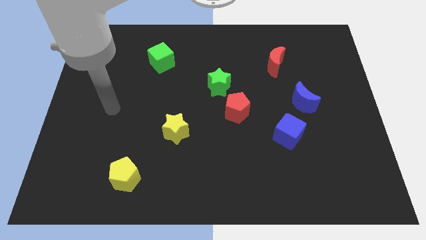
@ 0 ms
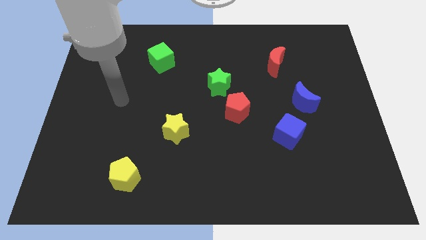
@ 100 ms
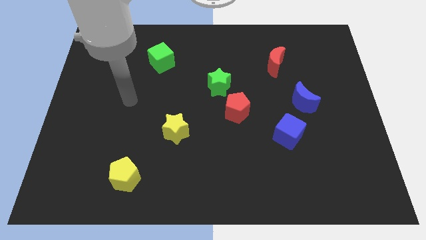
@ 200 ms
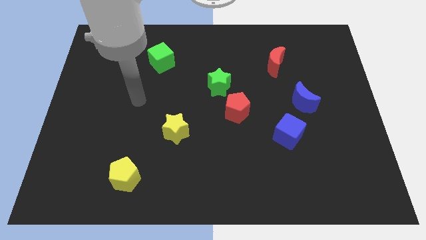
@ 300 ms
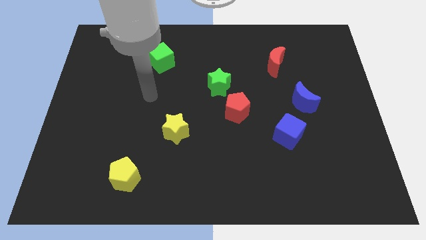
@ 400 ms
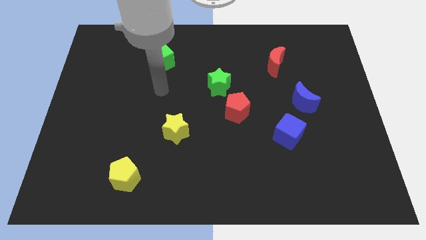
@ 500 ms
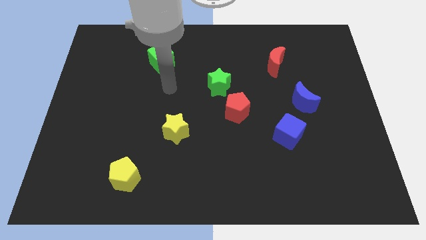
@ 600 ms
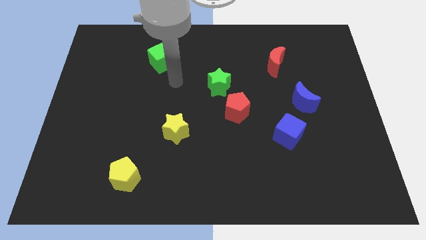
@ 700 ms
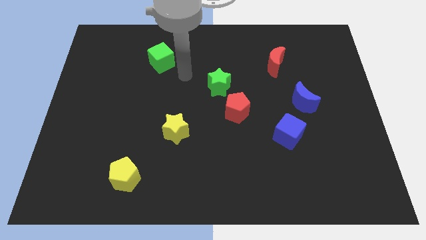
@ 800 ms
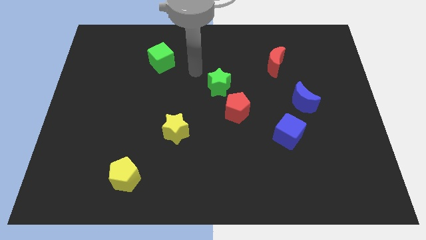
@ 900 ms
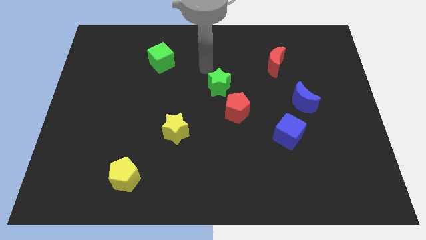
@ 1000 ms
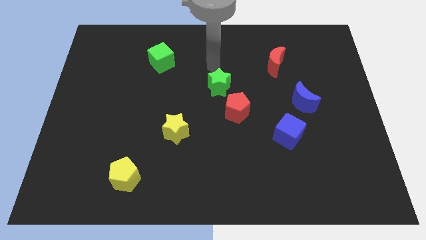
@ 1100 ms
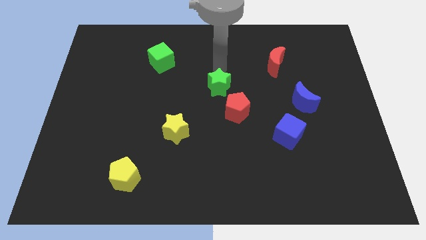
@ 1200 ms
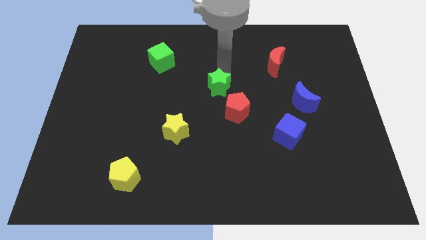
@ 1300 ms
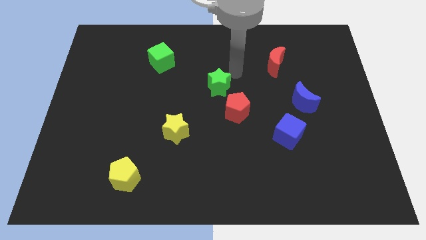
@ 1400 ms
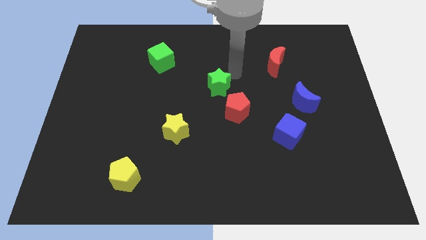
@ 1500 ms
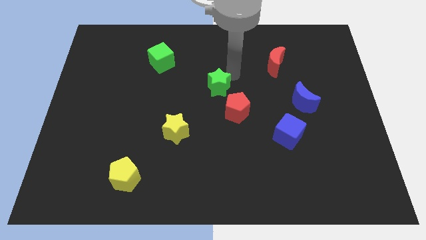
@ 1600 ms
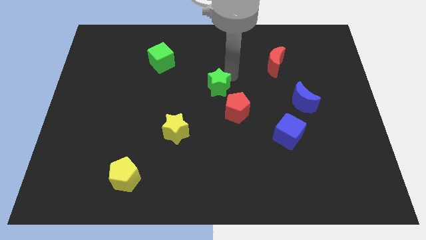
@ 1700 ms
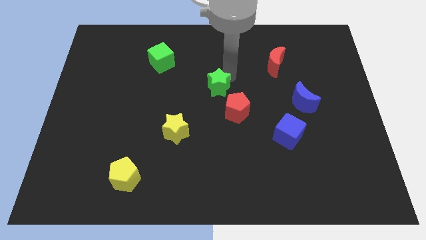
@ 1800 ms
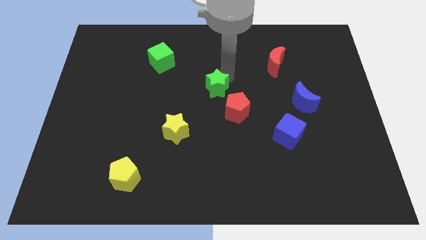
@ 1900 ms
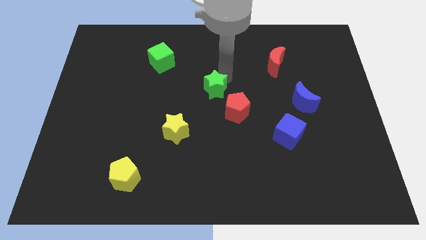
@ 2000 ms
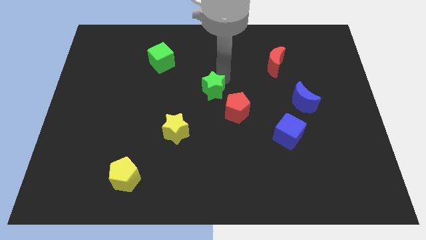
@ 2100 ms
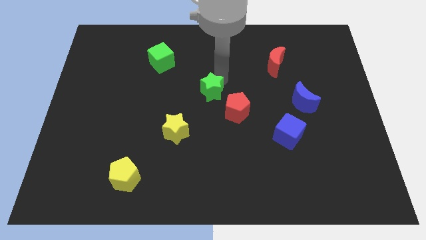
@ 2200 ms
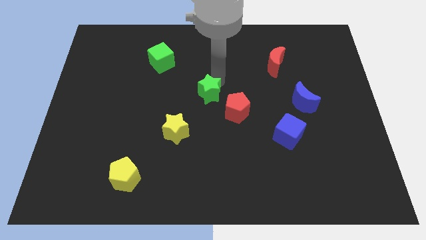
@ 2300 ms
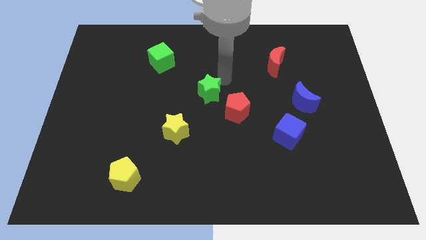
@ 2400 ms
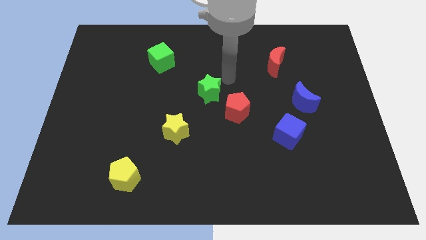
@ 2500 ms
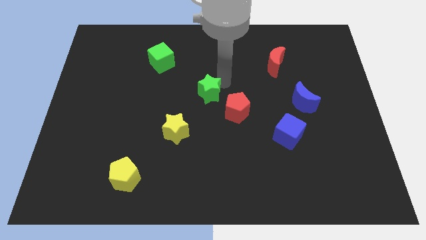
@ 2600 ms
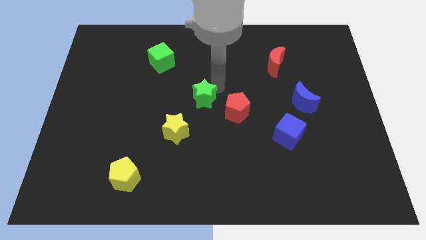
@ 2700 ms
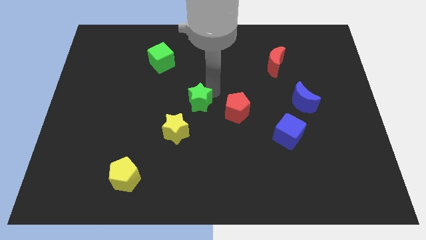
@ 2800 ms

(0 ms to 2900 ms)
move the green star down and to the left slightly

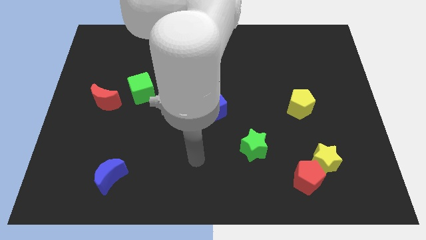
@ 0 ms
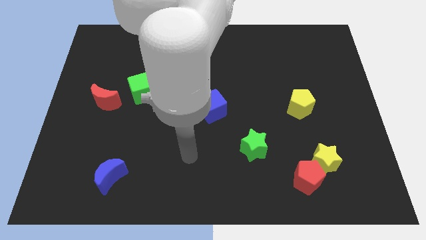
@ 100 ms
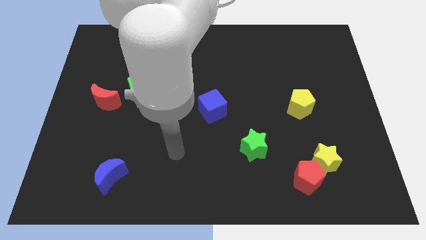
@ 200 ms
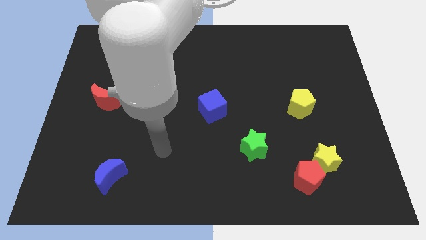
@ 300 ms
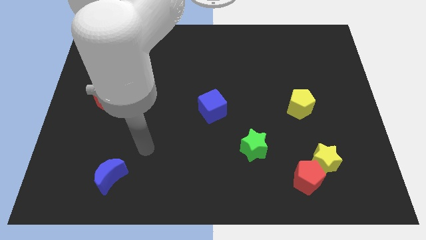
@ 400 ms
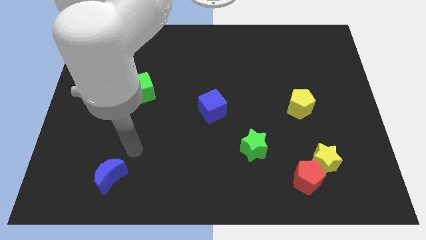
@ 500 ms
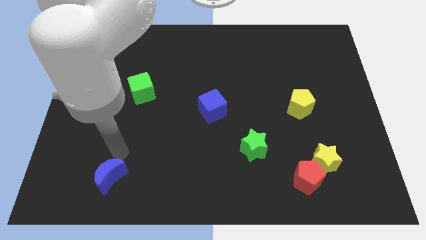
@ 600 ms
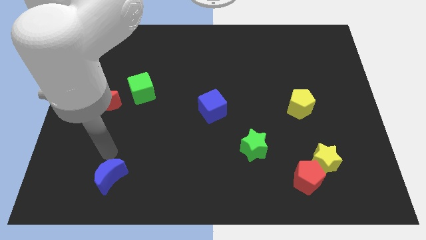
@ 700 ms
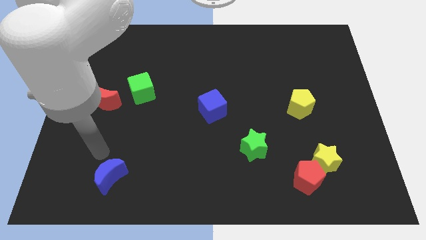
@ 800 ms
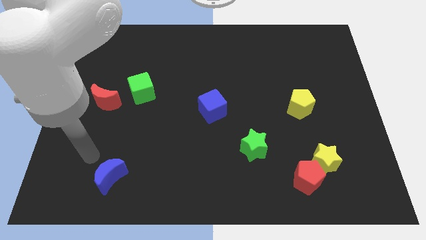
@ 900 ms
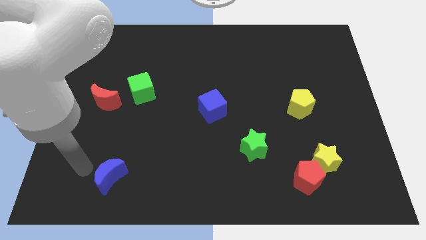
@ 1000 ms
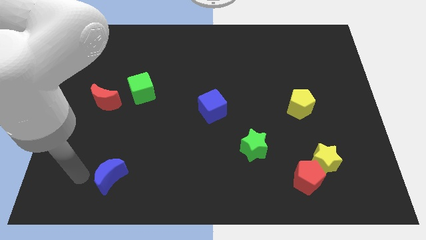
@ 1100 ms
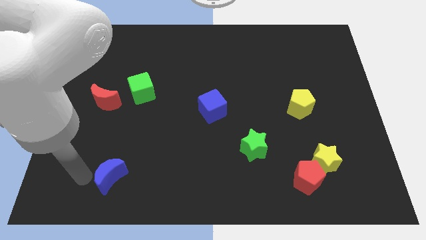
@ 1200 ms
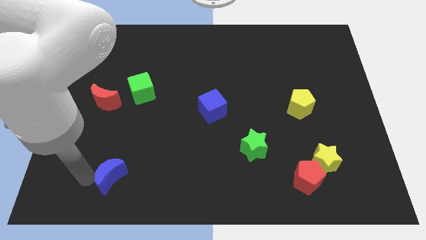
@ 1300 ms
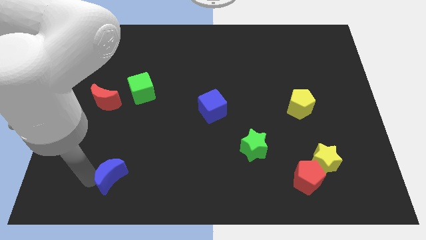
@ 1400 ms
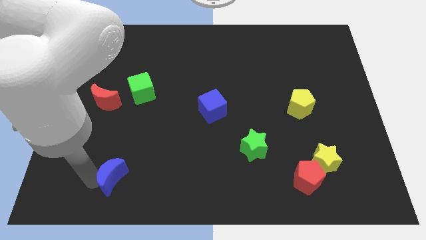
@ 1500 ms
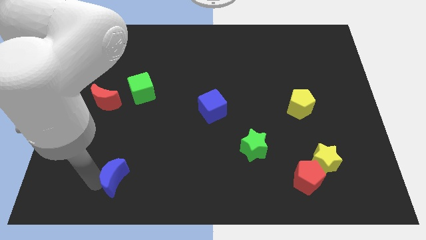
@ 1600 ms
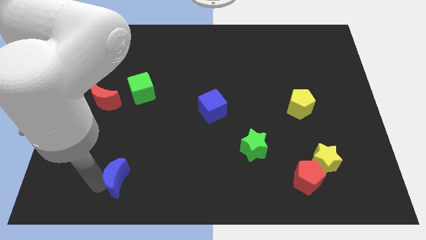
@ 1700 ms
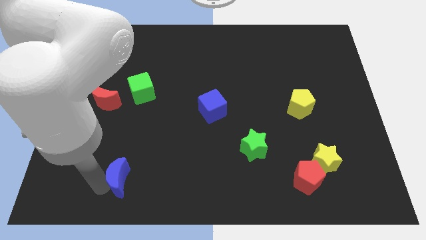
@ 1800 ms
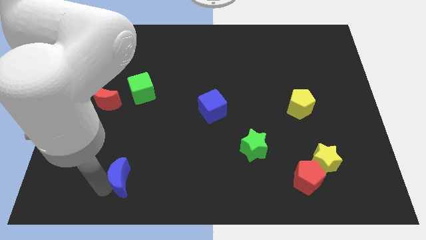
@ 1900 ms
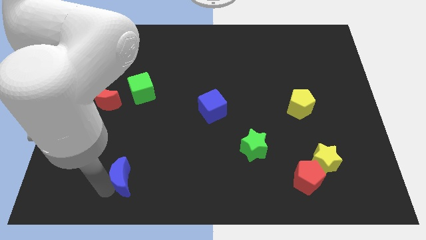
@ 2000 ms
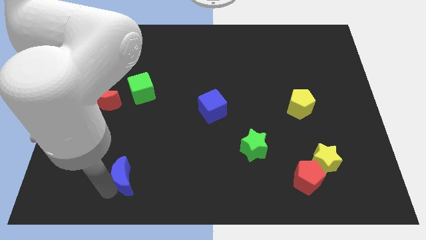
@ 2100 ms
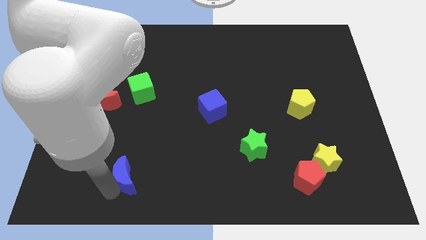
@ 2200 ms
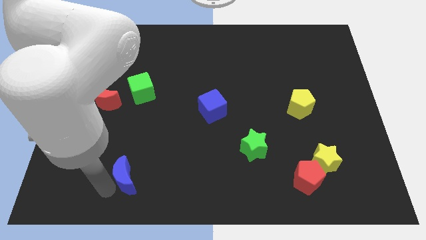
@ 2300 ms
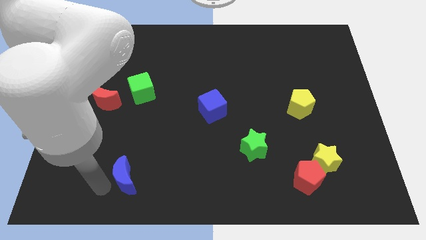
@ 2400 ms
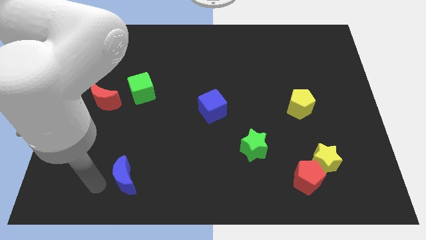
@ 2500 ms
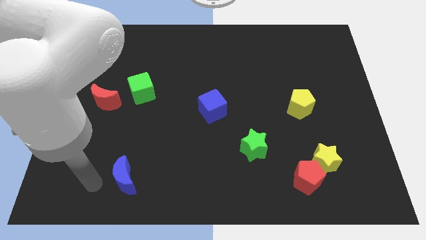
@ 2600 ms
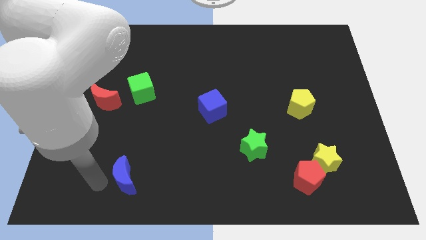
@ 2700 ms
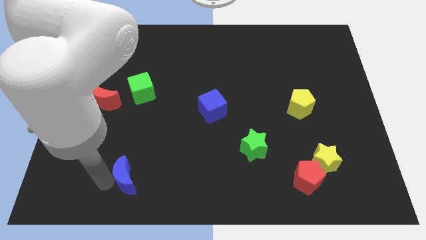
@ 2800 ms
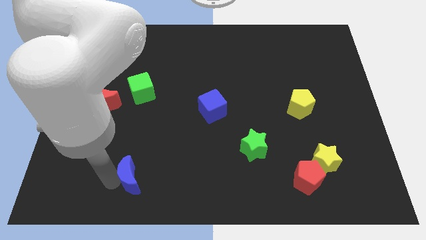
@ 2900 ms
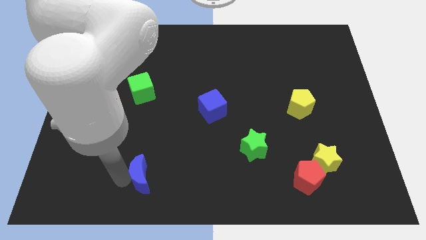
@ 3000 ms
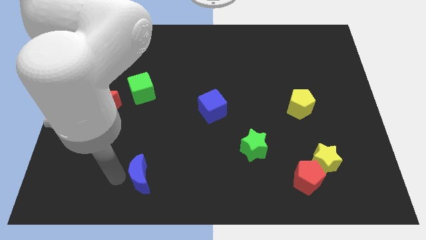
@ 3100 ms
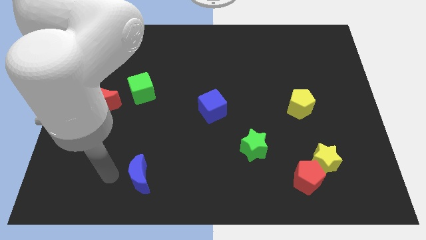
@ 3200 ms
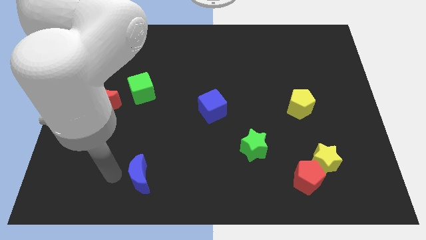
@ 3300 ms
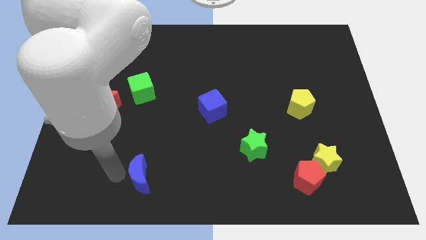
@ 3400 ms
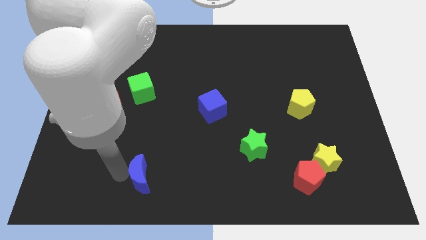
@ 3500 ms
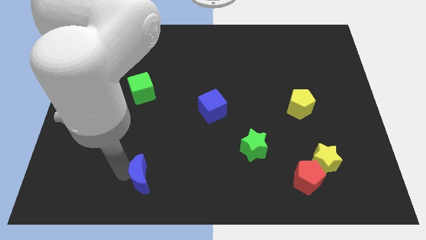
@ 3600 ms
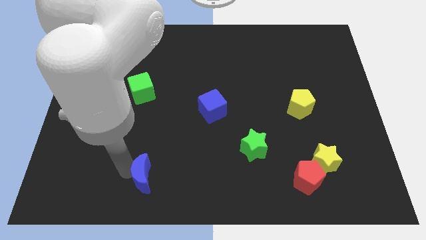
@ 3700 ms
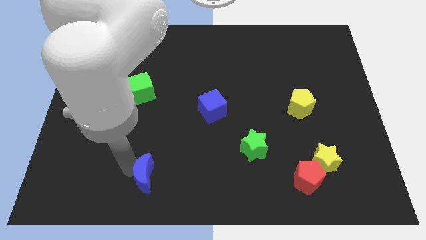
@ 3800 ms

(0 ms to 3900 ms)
slightly slide the blue moon right

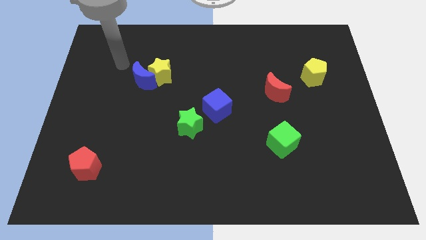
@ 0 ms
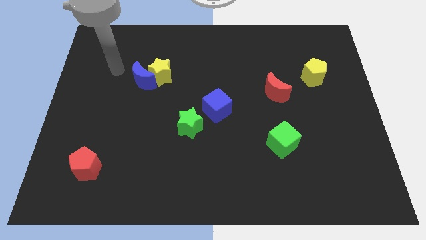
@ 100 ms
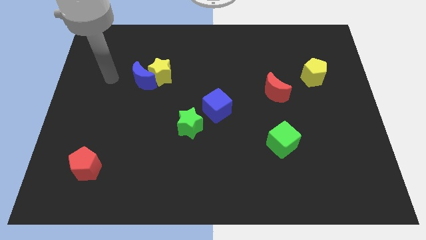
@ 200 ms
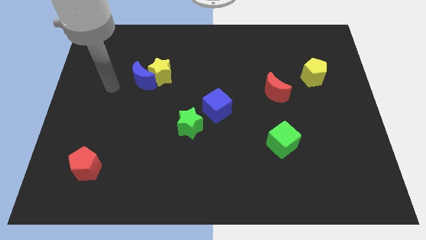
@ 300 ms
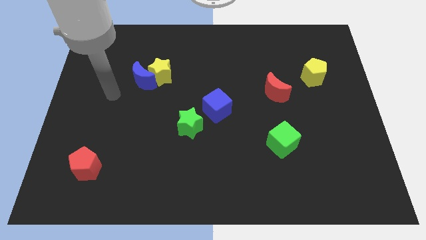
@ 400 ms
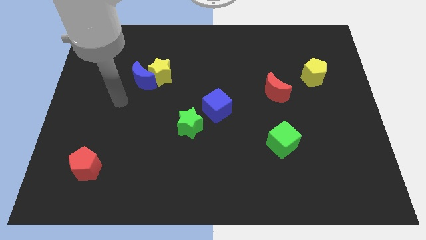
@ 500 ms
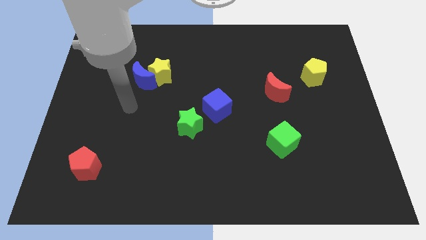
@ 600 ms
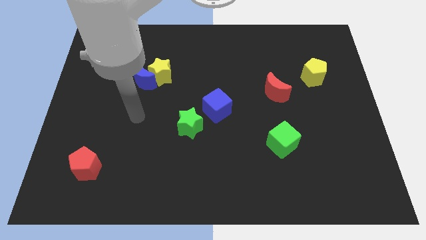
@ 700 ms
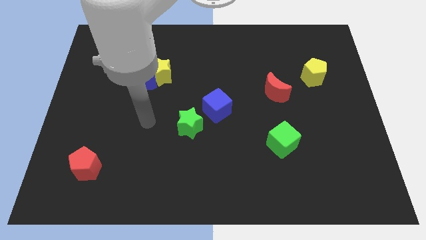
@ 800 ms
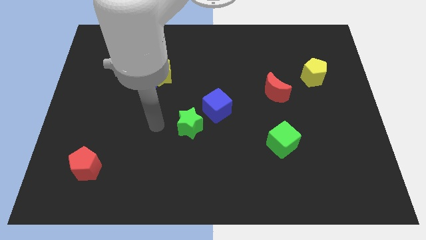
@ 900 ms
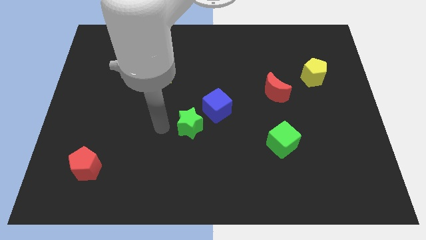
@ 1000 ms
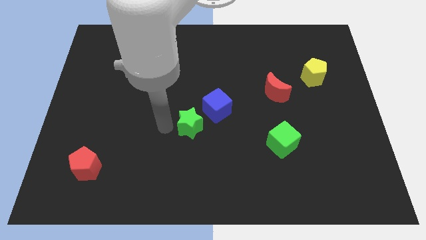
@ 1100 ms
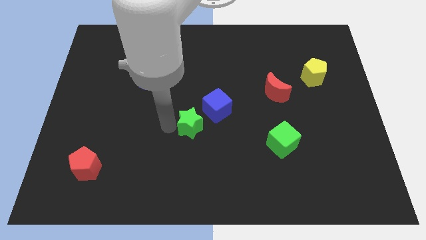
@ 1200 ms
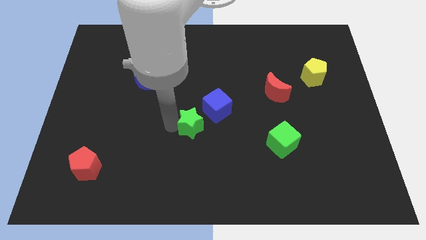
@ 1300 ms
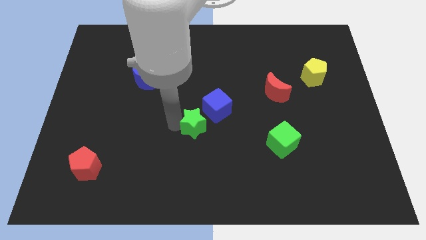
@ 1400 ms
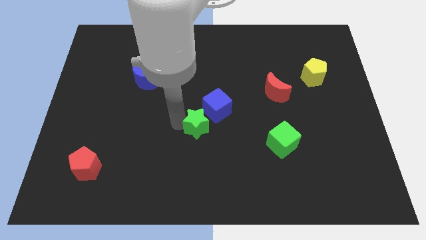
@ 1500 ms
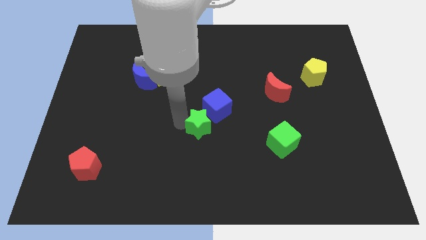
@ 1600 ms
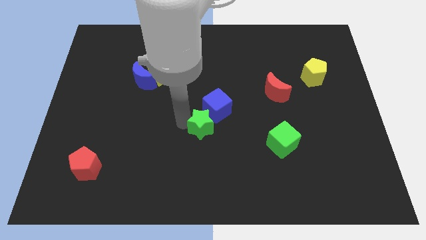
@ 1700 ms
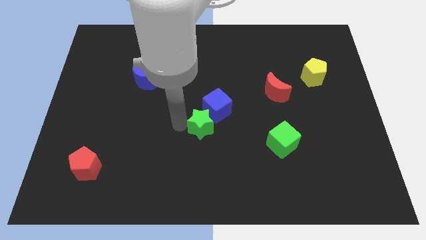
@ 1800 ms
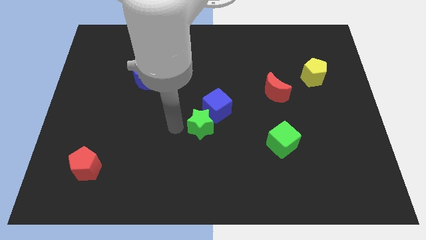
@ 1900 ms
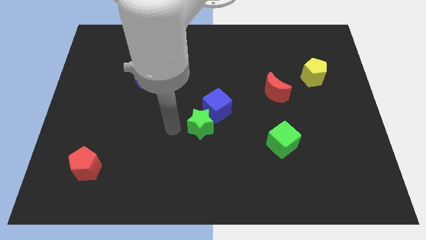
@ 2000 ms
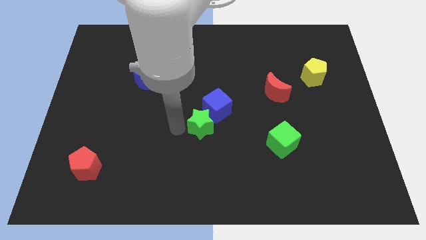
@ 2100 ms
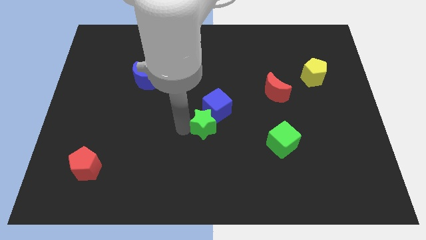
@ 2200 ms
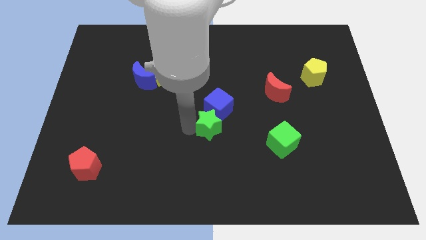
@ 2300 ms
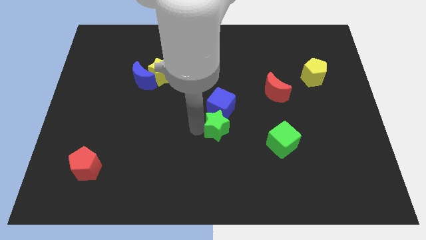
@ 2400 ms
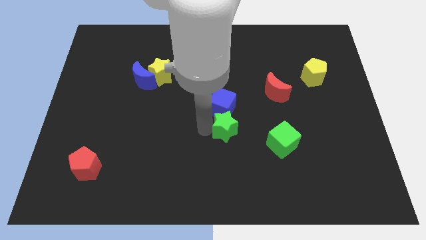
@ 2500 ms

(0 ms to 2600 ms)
slightly slide the green star to the right
